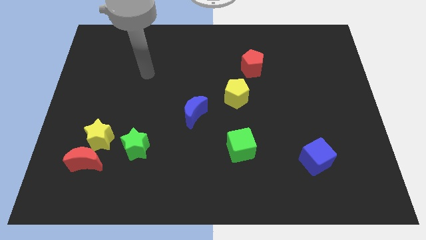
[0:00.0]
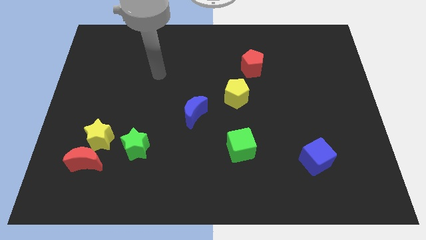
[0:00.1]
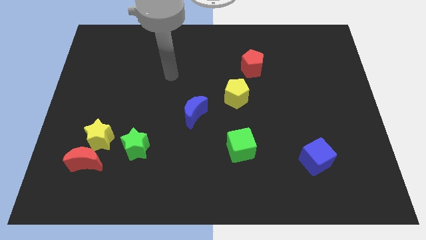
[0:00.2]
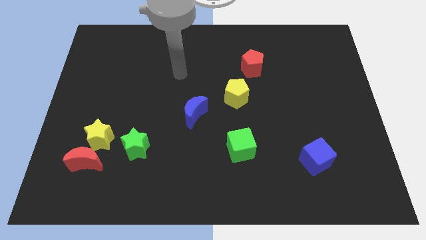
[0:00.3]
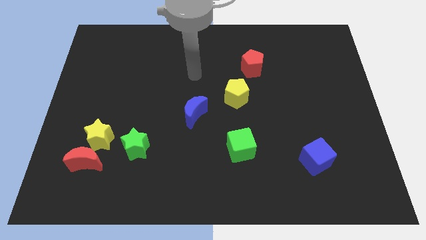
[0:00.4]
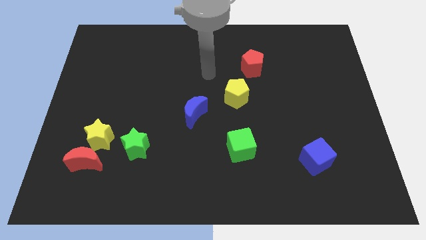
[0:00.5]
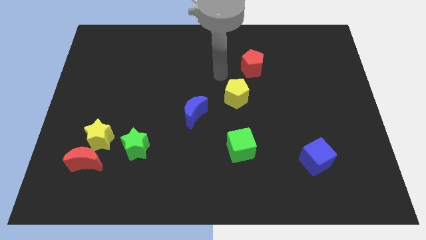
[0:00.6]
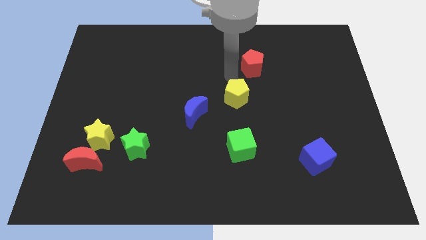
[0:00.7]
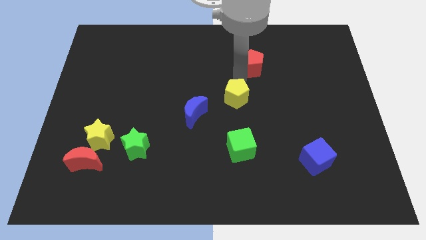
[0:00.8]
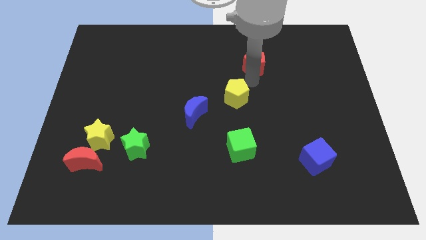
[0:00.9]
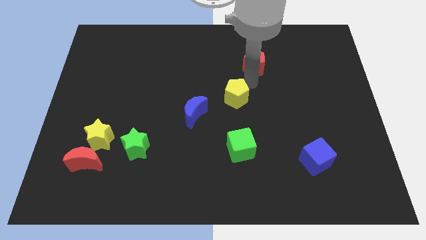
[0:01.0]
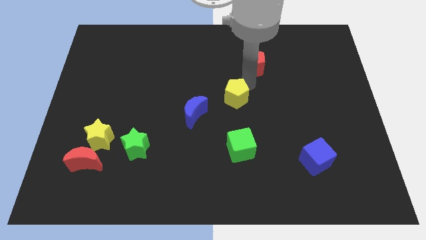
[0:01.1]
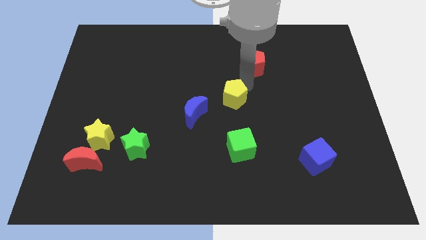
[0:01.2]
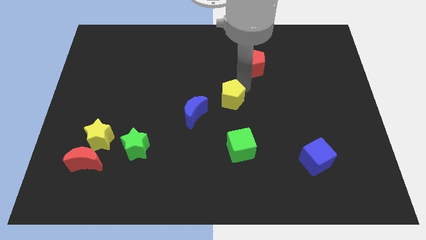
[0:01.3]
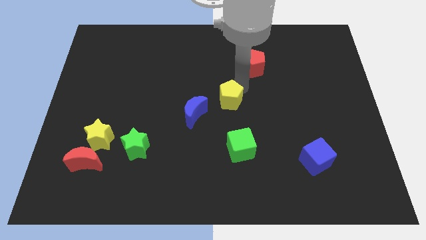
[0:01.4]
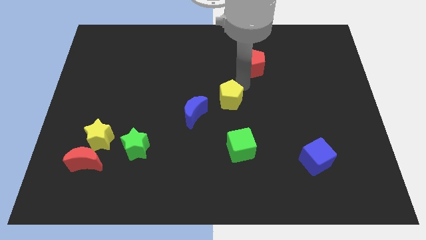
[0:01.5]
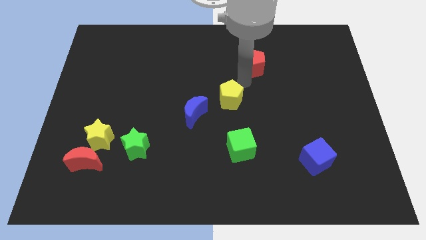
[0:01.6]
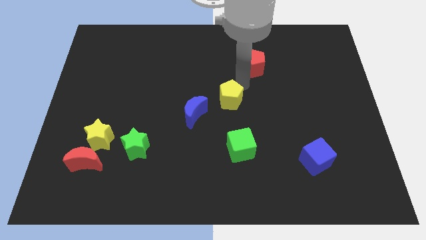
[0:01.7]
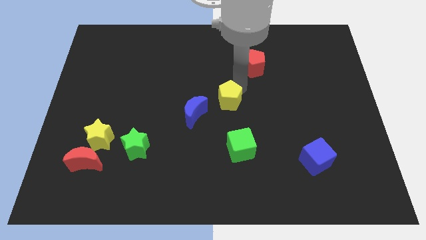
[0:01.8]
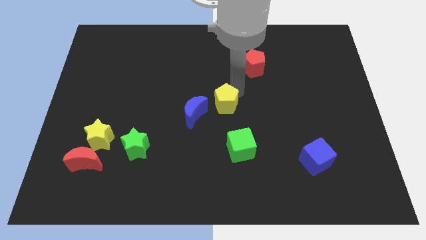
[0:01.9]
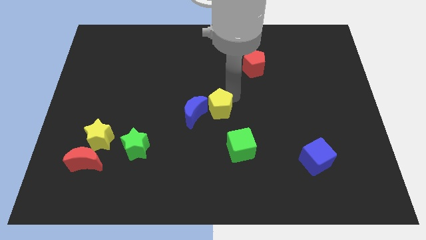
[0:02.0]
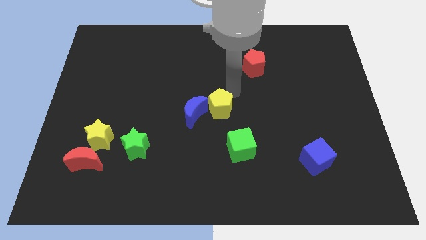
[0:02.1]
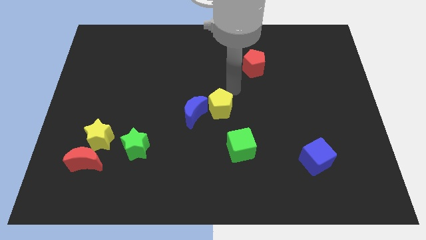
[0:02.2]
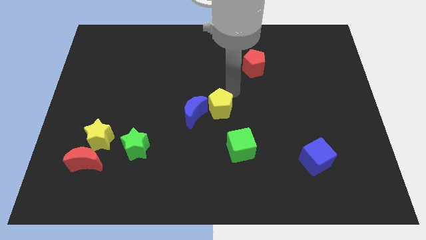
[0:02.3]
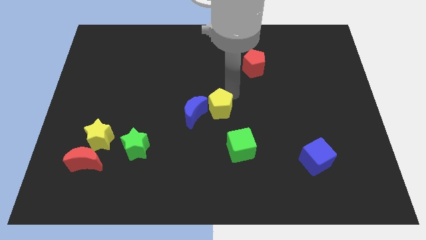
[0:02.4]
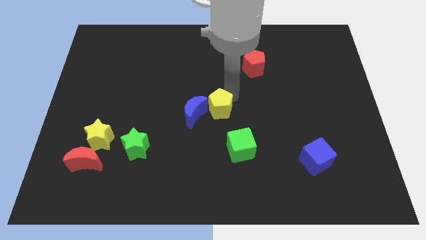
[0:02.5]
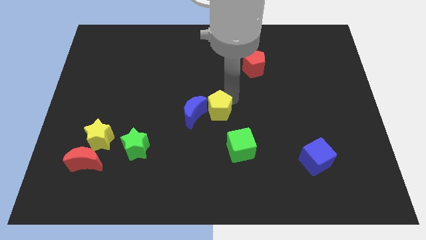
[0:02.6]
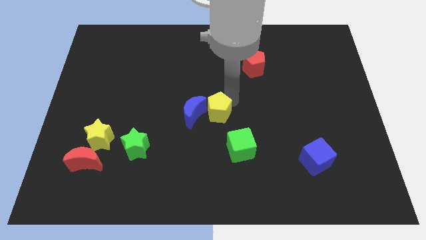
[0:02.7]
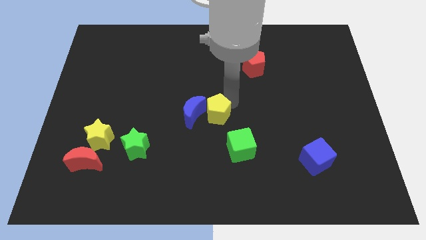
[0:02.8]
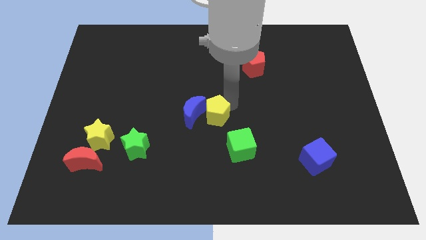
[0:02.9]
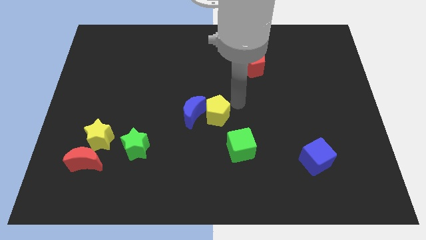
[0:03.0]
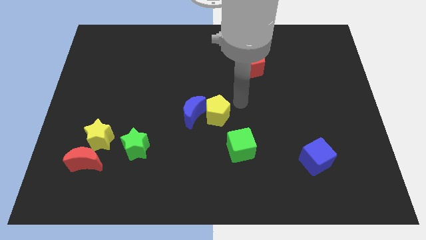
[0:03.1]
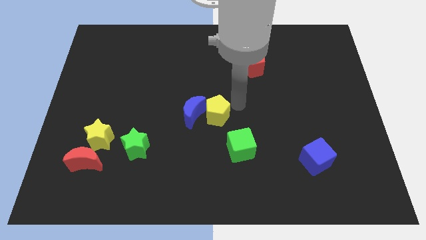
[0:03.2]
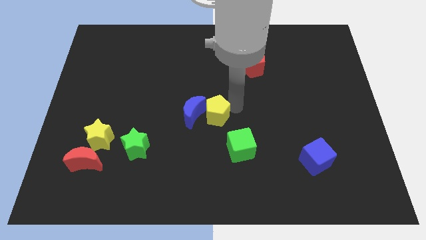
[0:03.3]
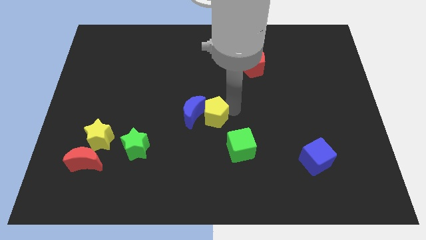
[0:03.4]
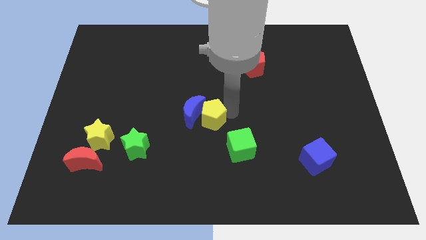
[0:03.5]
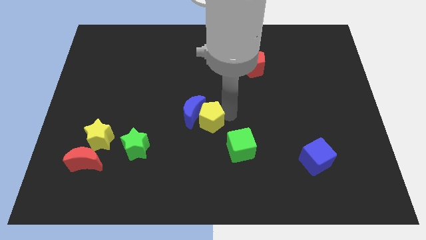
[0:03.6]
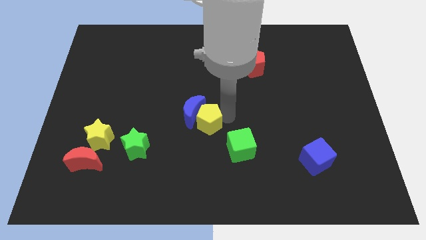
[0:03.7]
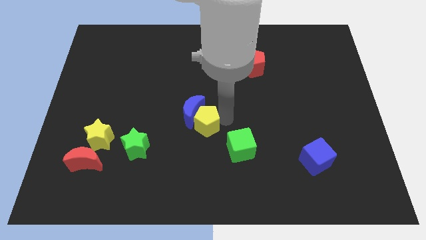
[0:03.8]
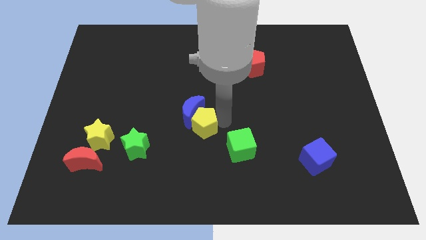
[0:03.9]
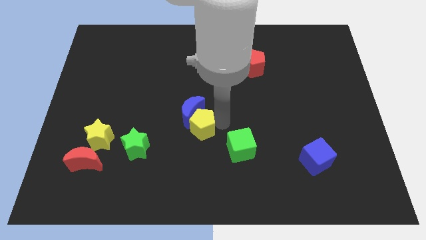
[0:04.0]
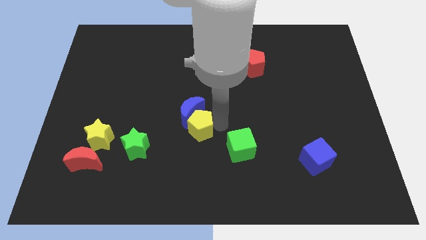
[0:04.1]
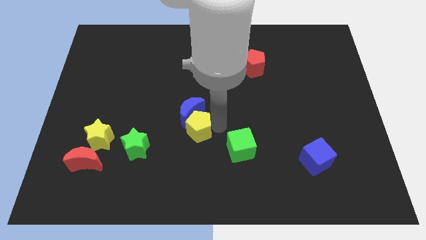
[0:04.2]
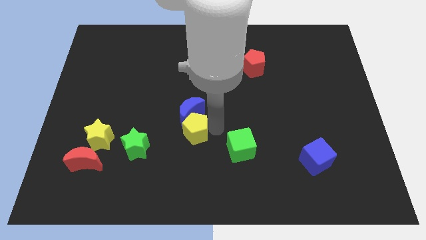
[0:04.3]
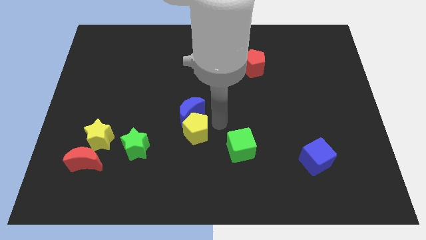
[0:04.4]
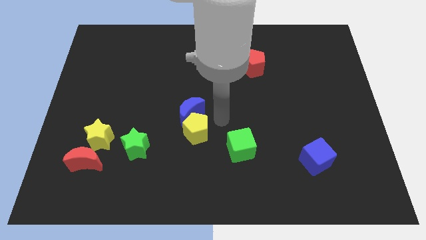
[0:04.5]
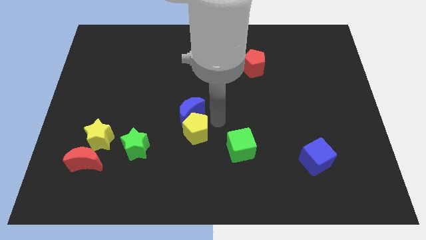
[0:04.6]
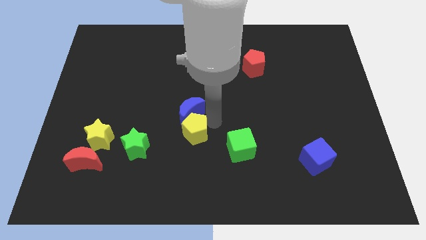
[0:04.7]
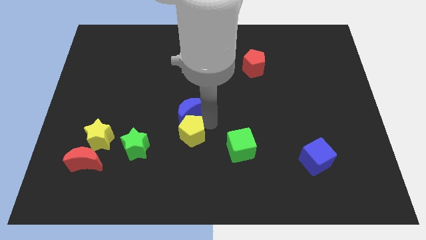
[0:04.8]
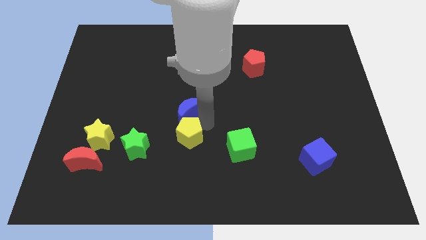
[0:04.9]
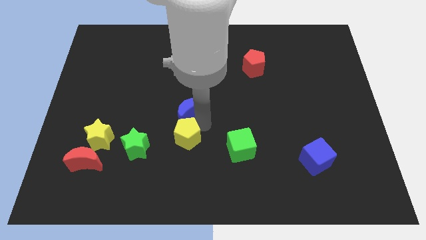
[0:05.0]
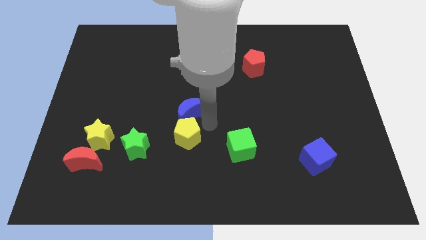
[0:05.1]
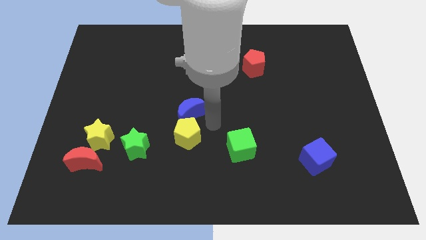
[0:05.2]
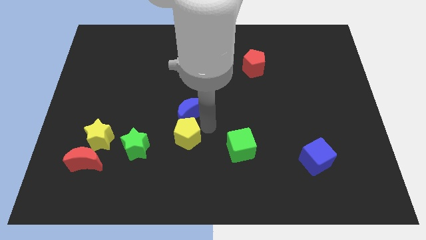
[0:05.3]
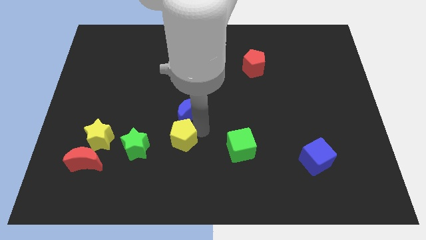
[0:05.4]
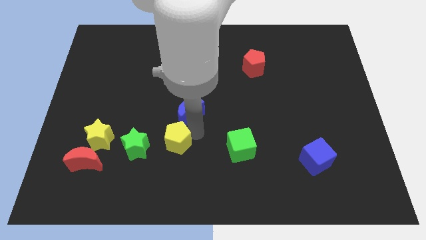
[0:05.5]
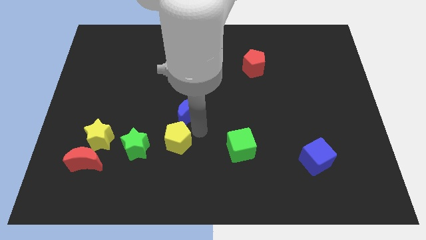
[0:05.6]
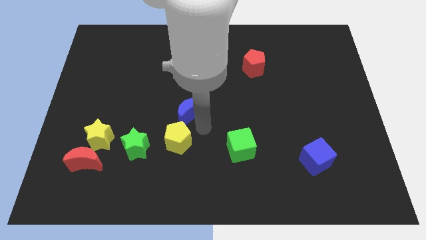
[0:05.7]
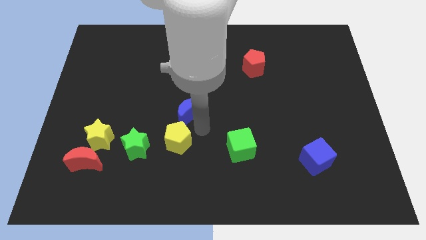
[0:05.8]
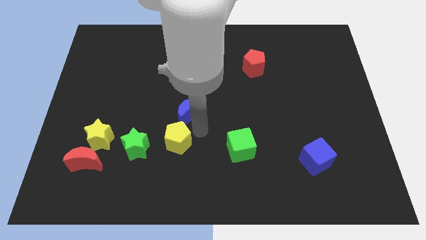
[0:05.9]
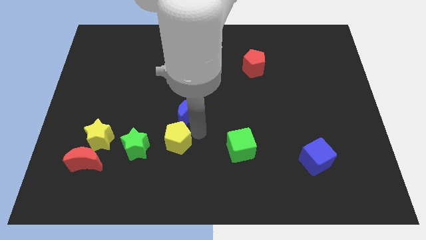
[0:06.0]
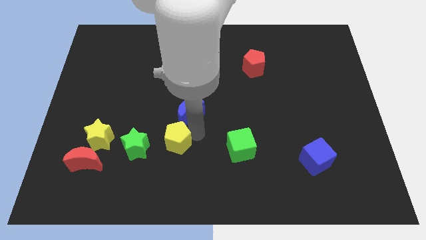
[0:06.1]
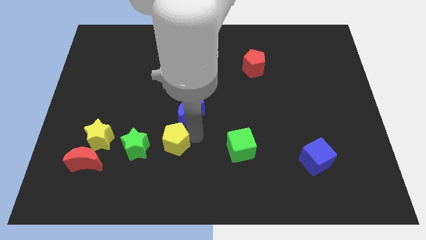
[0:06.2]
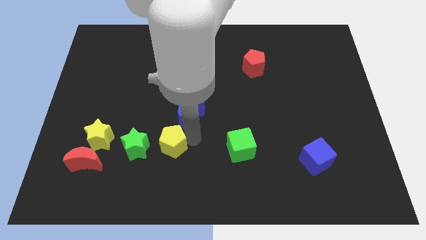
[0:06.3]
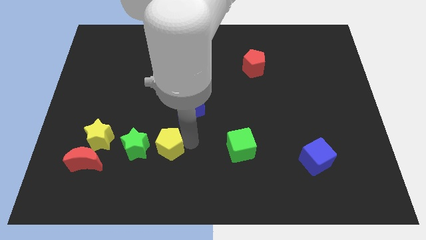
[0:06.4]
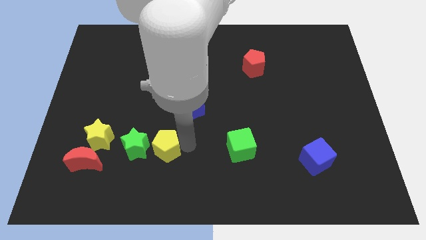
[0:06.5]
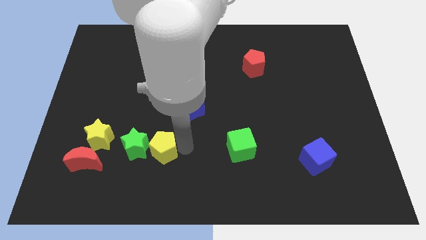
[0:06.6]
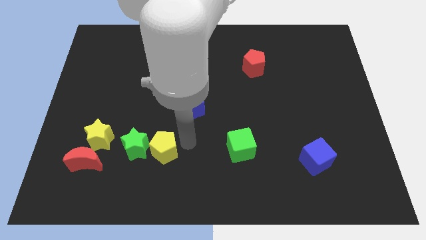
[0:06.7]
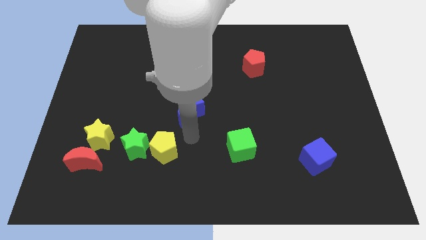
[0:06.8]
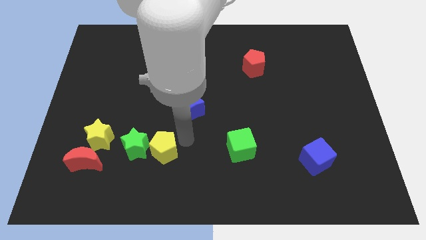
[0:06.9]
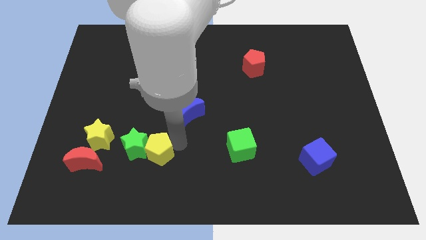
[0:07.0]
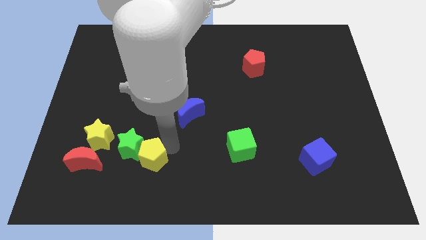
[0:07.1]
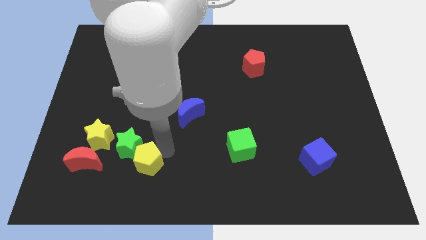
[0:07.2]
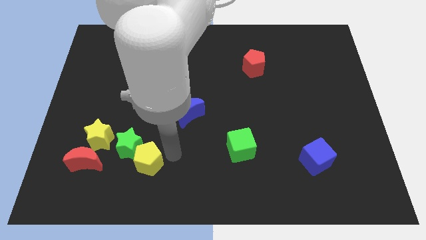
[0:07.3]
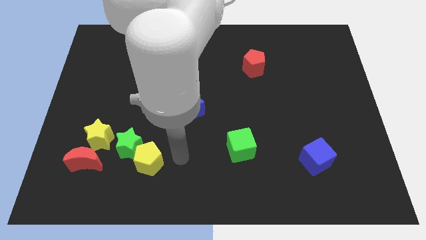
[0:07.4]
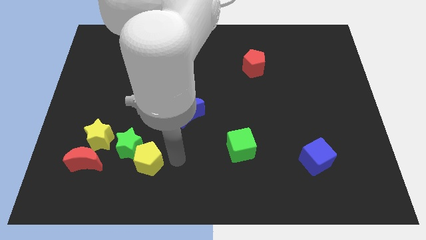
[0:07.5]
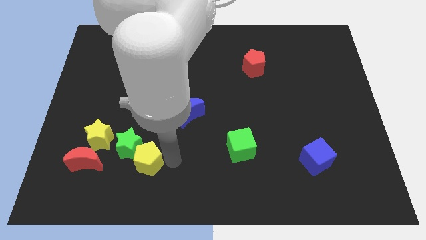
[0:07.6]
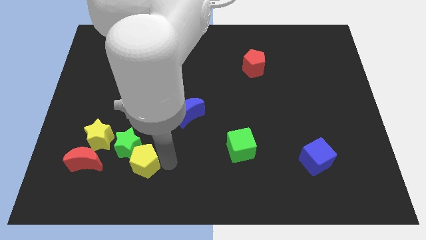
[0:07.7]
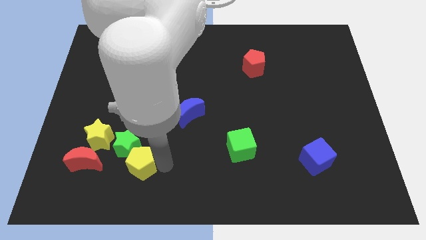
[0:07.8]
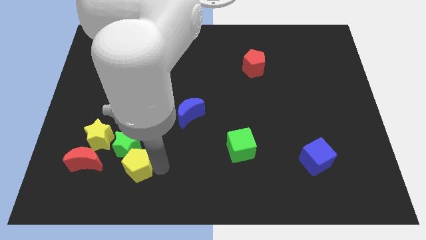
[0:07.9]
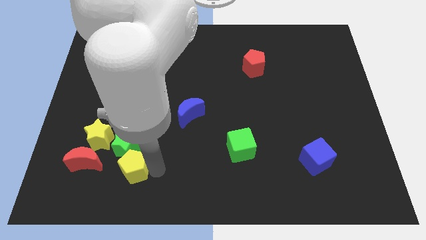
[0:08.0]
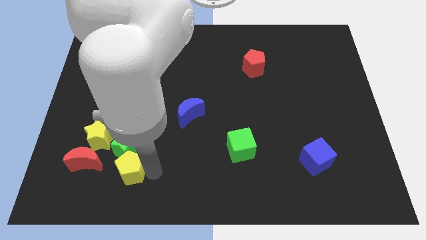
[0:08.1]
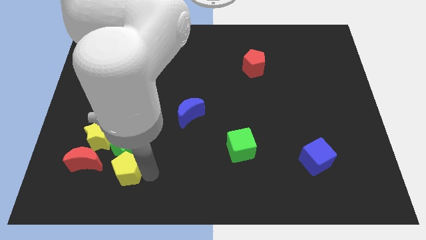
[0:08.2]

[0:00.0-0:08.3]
move the yellow pentagon to the bottom left side of the green star

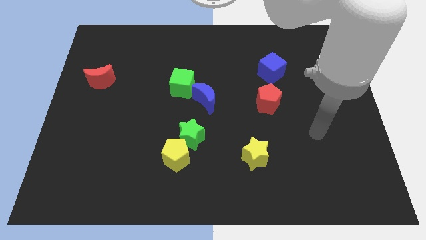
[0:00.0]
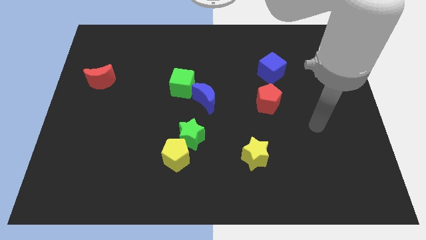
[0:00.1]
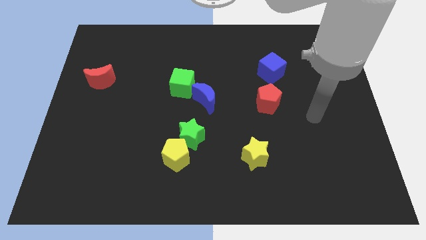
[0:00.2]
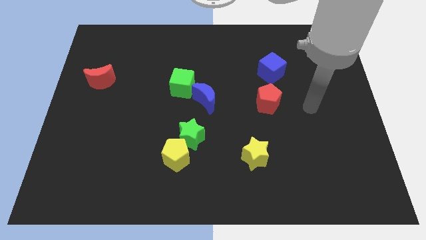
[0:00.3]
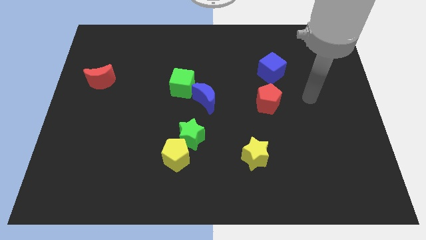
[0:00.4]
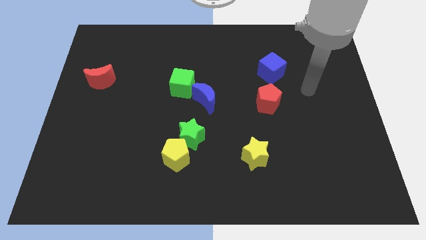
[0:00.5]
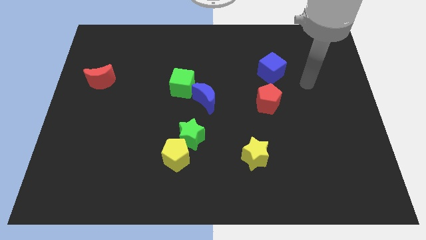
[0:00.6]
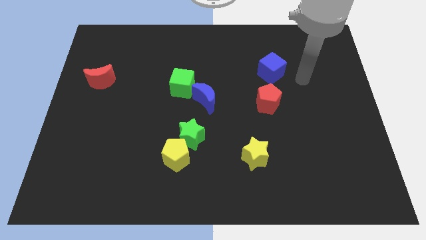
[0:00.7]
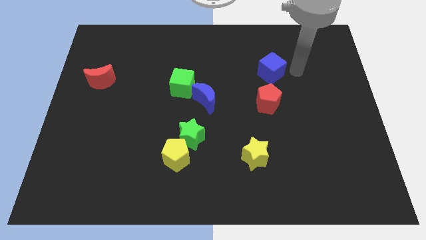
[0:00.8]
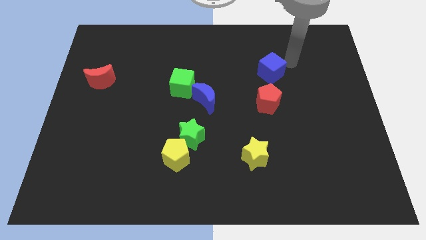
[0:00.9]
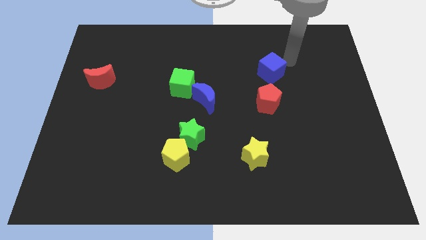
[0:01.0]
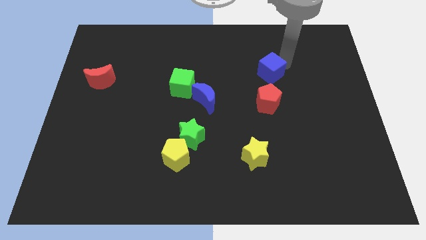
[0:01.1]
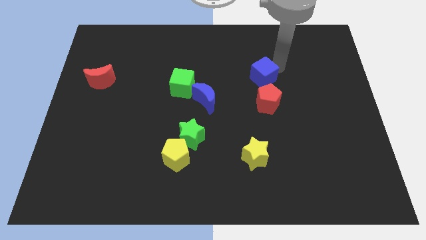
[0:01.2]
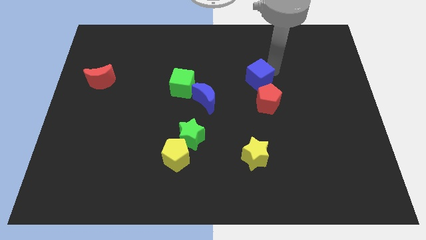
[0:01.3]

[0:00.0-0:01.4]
push the blue cube to the top left of the red pentagon
